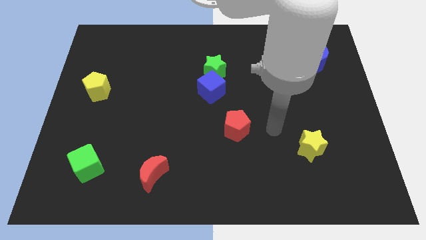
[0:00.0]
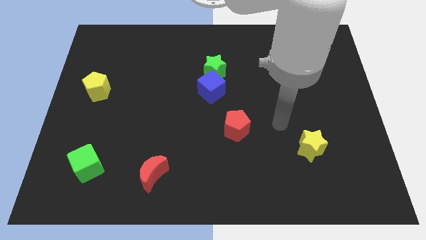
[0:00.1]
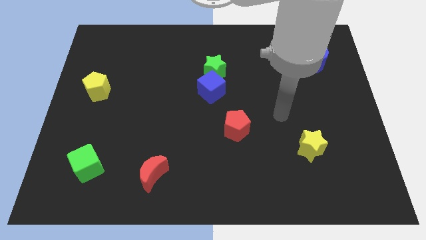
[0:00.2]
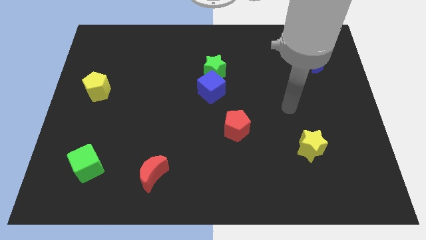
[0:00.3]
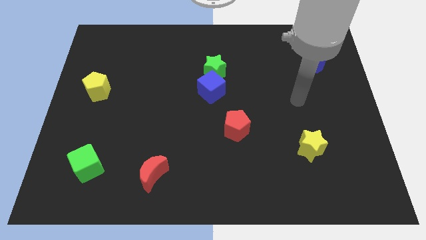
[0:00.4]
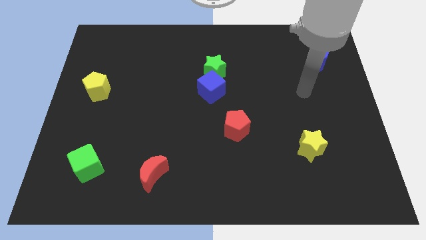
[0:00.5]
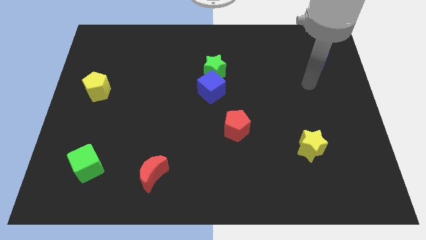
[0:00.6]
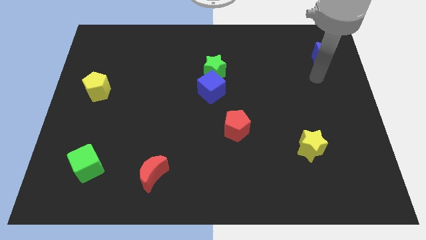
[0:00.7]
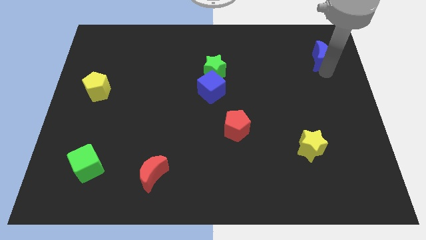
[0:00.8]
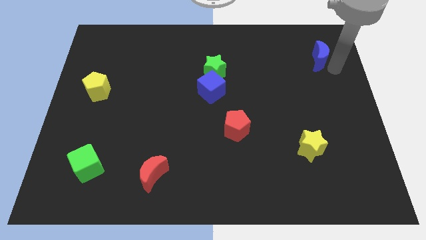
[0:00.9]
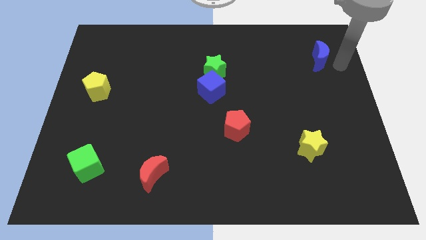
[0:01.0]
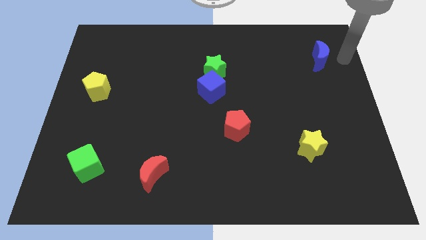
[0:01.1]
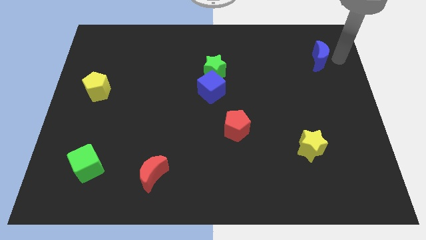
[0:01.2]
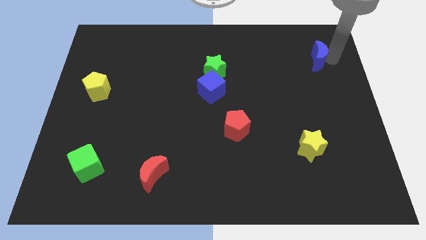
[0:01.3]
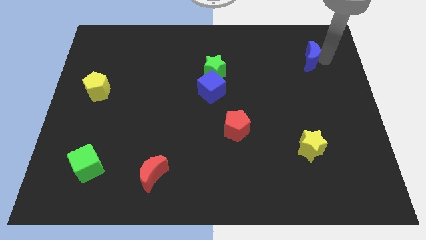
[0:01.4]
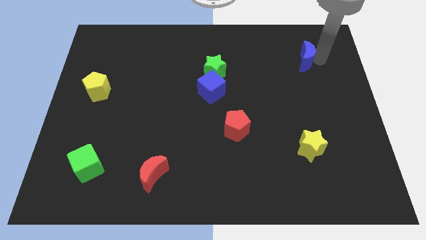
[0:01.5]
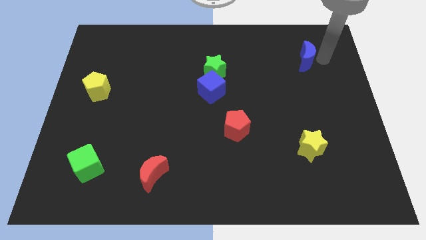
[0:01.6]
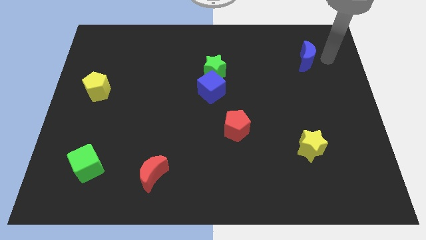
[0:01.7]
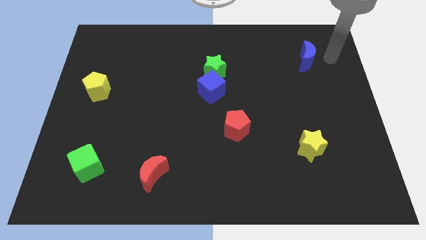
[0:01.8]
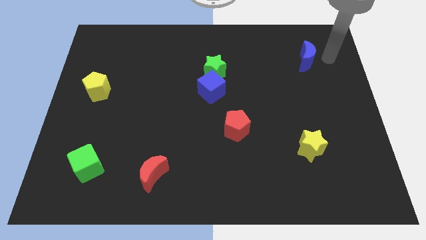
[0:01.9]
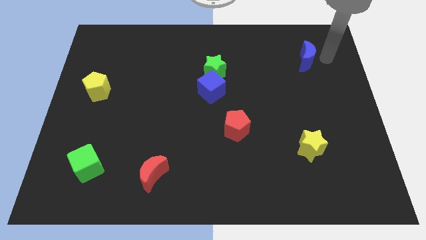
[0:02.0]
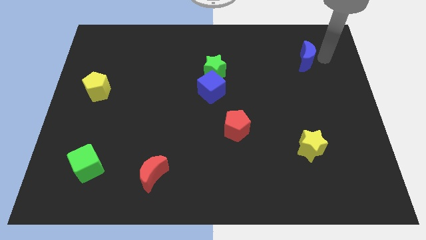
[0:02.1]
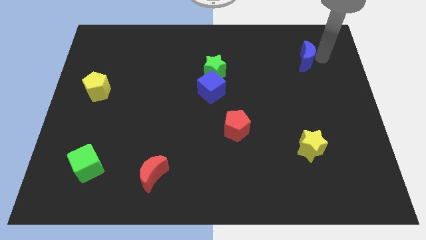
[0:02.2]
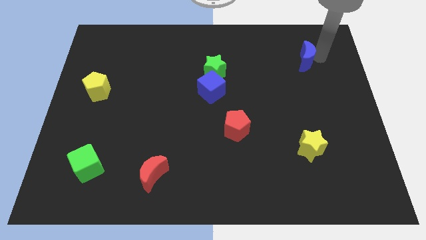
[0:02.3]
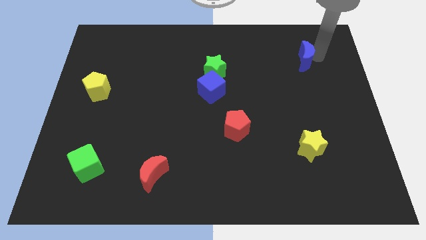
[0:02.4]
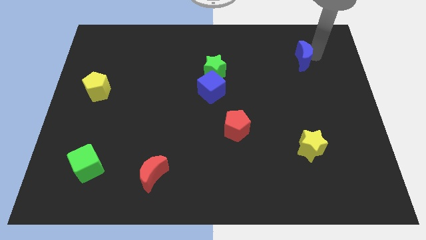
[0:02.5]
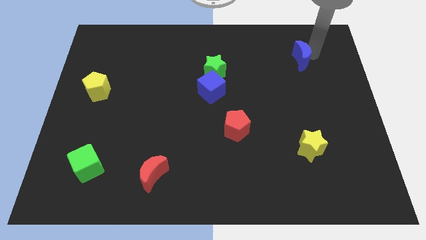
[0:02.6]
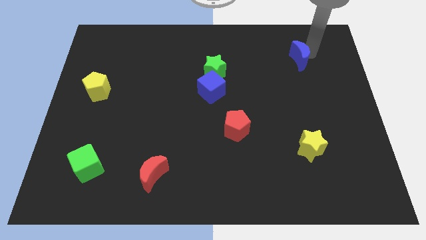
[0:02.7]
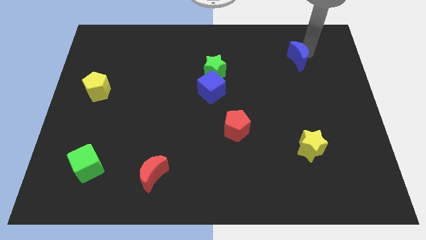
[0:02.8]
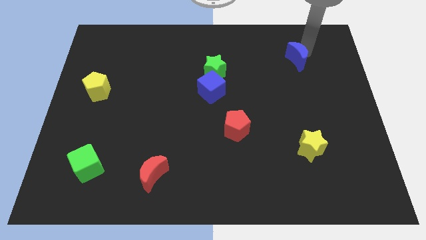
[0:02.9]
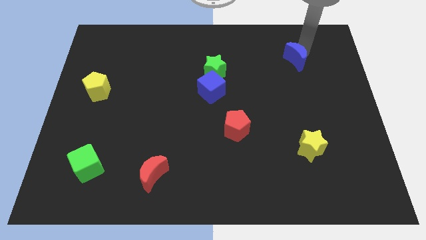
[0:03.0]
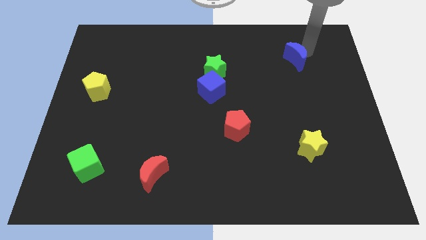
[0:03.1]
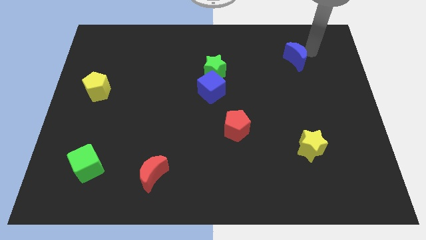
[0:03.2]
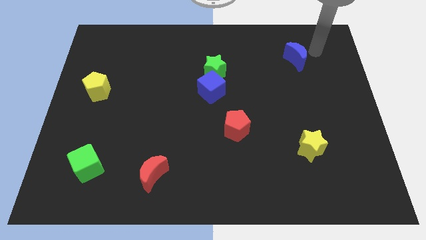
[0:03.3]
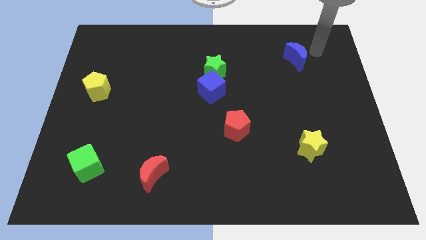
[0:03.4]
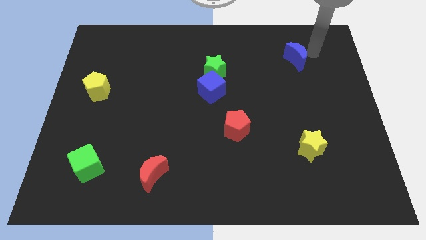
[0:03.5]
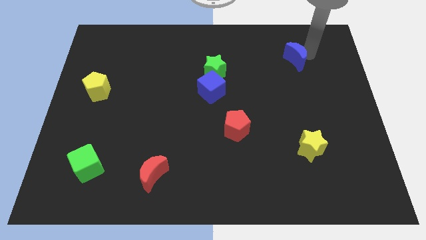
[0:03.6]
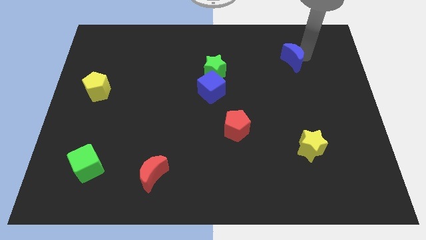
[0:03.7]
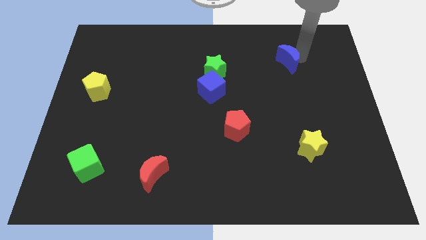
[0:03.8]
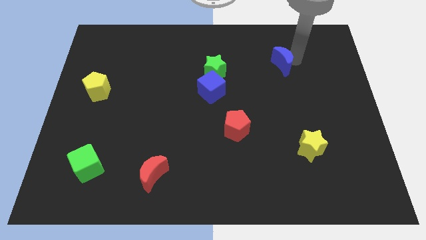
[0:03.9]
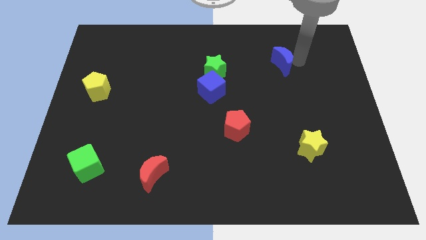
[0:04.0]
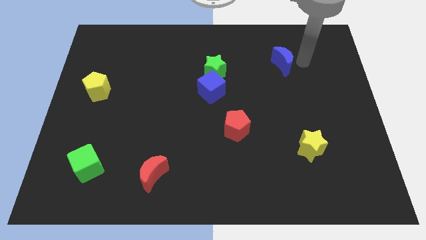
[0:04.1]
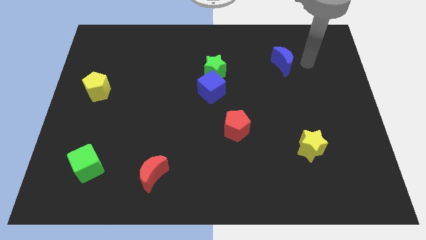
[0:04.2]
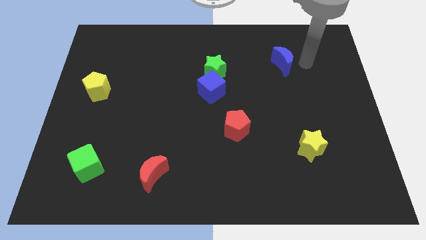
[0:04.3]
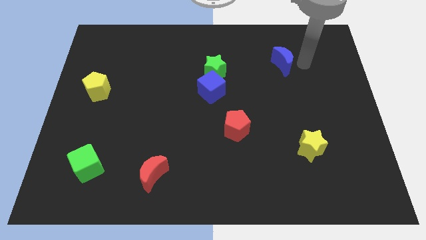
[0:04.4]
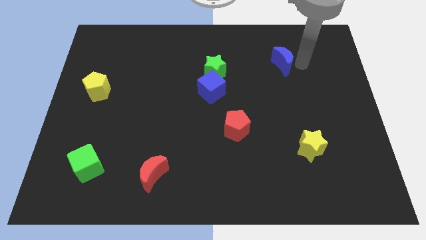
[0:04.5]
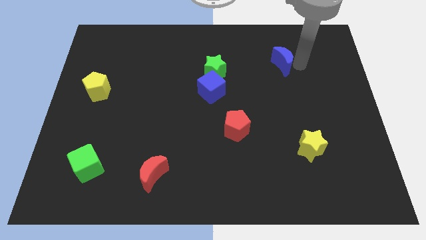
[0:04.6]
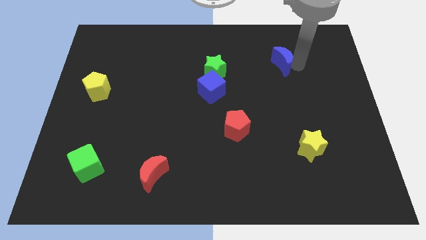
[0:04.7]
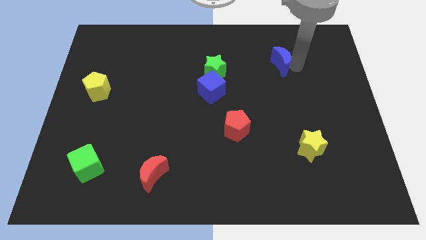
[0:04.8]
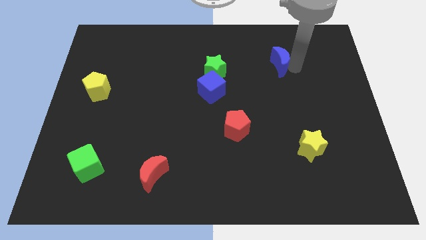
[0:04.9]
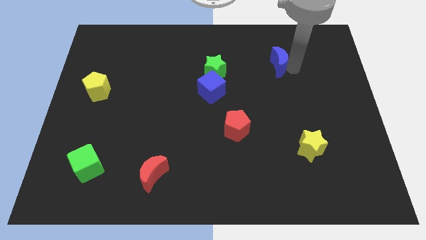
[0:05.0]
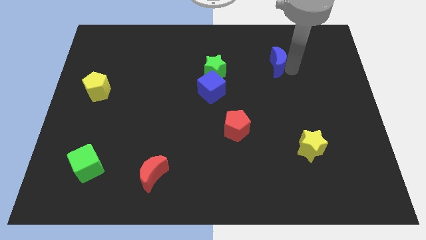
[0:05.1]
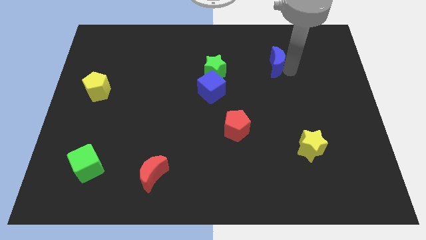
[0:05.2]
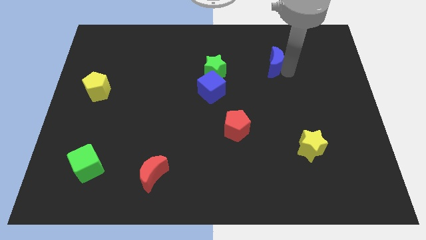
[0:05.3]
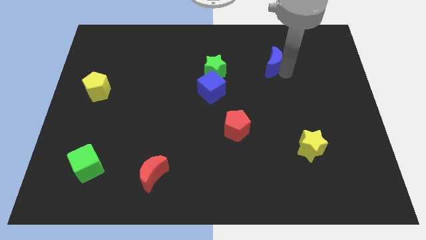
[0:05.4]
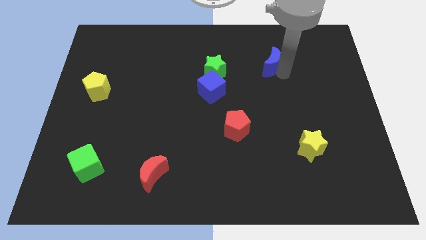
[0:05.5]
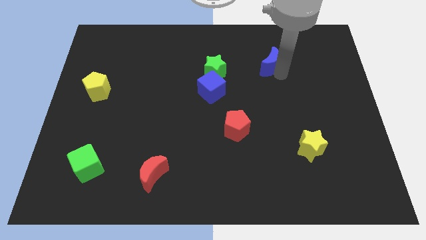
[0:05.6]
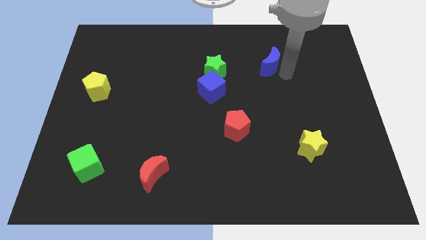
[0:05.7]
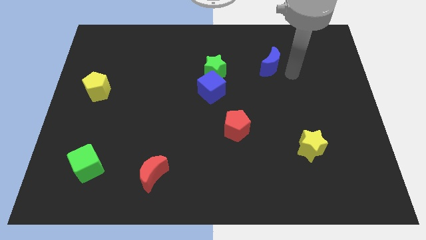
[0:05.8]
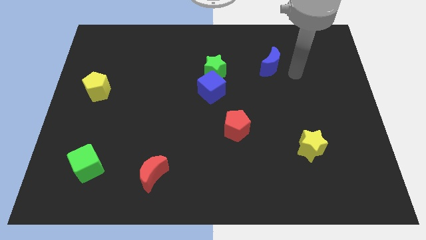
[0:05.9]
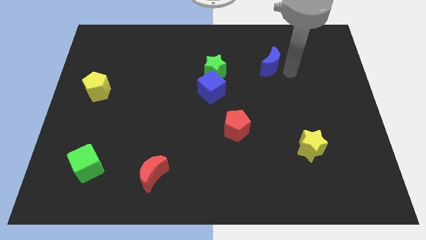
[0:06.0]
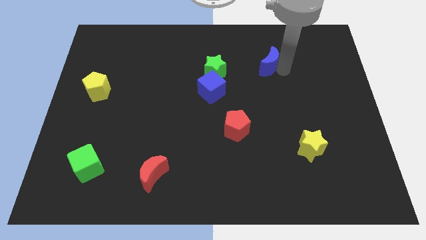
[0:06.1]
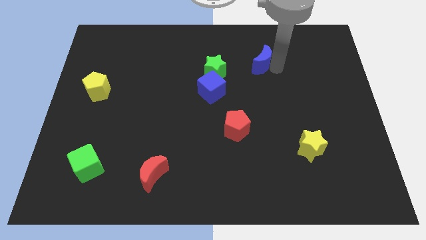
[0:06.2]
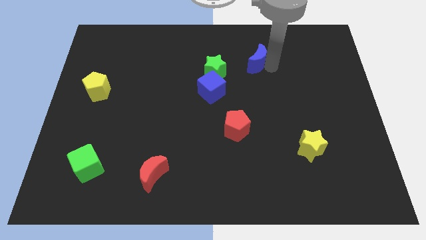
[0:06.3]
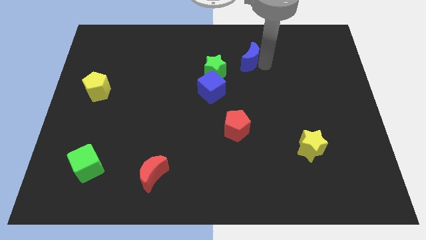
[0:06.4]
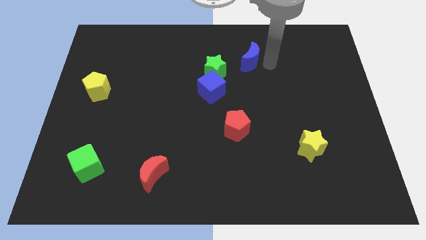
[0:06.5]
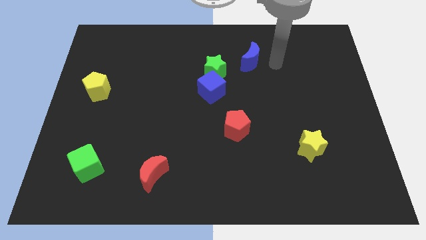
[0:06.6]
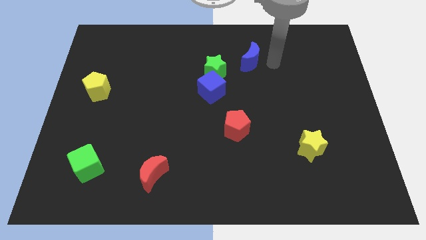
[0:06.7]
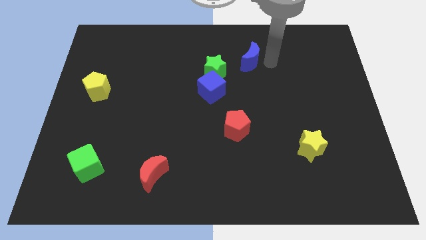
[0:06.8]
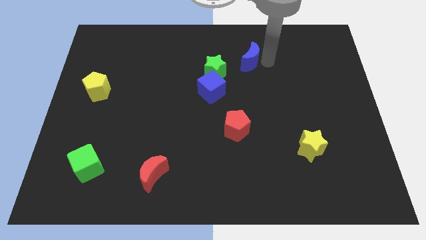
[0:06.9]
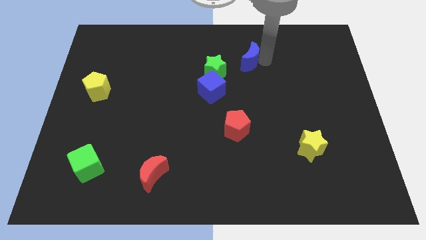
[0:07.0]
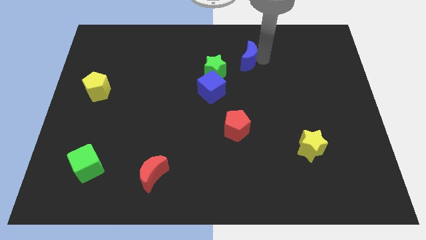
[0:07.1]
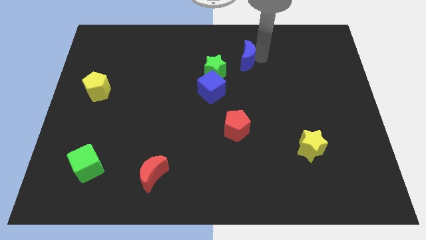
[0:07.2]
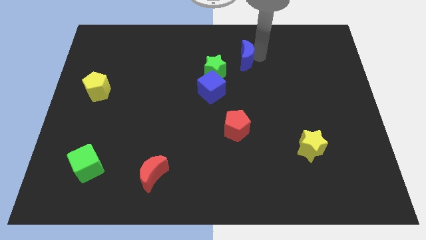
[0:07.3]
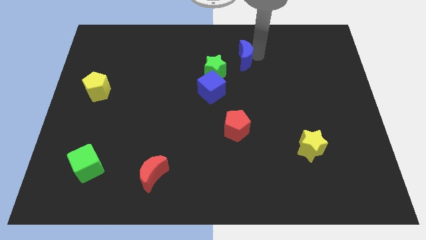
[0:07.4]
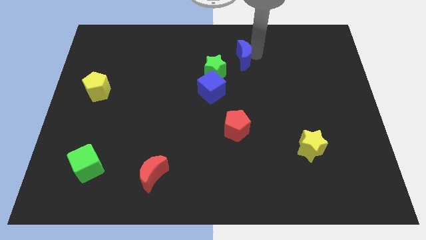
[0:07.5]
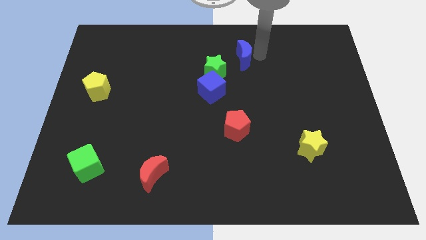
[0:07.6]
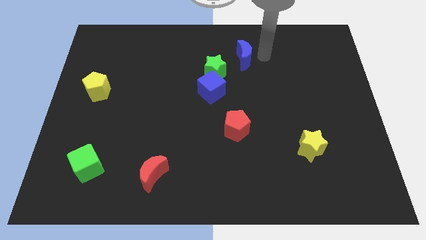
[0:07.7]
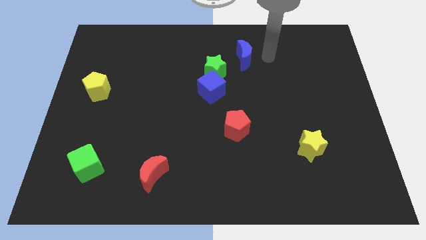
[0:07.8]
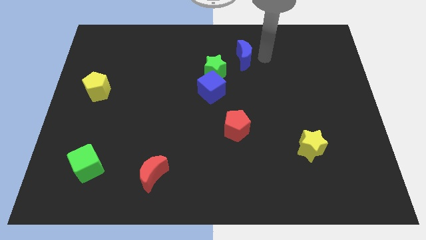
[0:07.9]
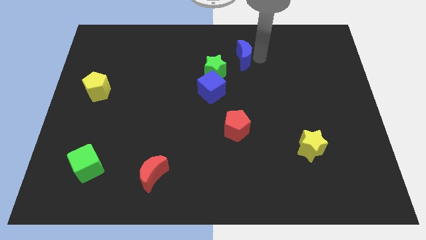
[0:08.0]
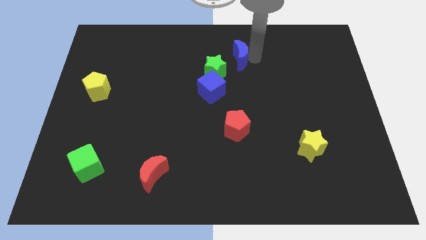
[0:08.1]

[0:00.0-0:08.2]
push the blue moon to the left
